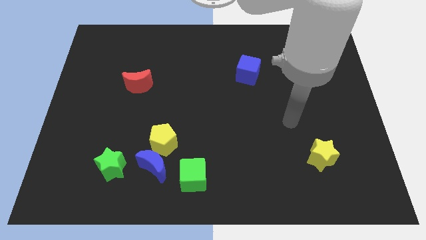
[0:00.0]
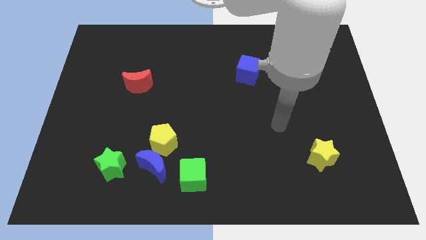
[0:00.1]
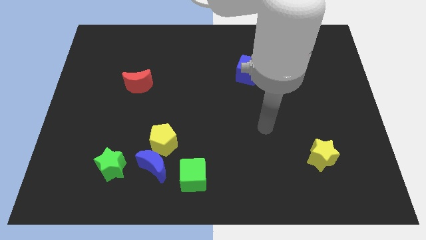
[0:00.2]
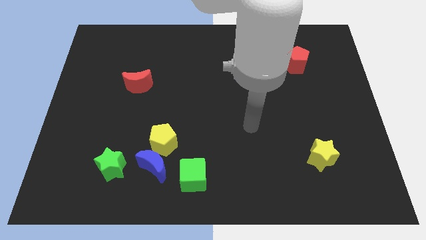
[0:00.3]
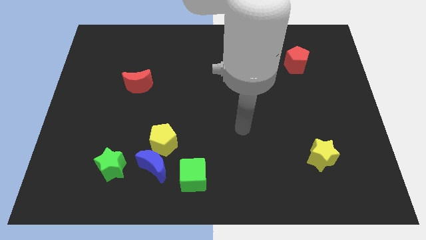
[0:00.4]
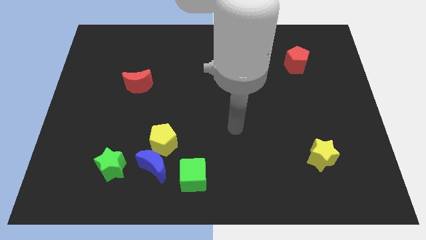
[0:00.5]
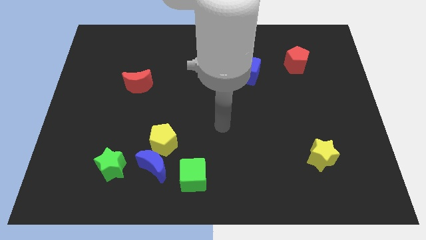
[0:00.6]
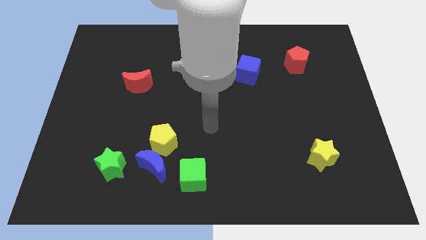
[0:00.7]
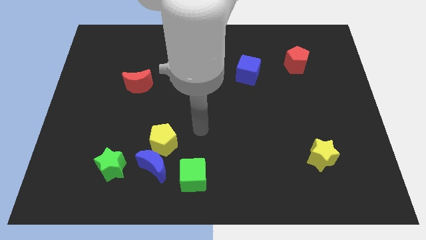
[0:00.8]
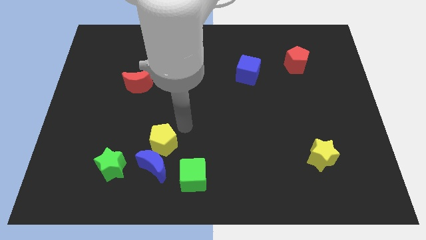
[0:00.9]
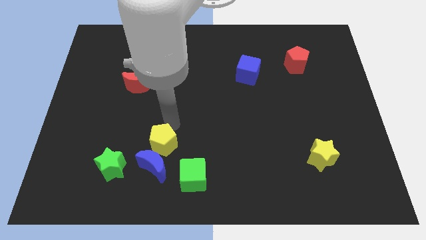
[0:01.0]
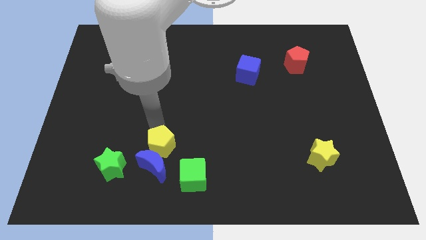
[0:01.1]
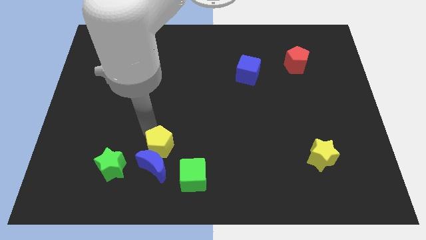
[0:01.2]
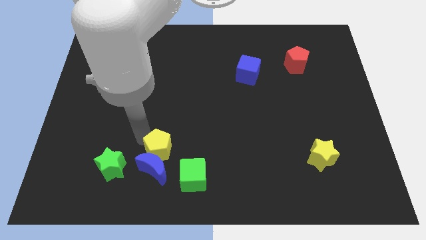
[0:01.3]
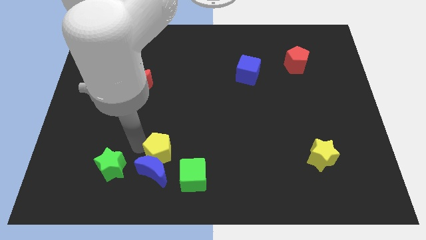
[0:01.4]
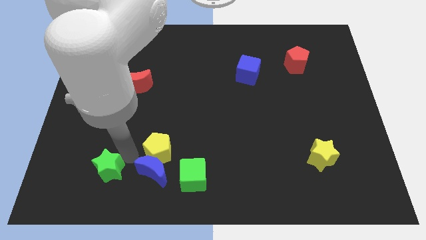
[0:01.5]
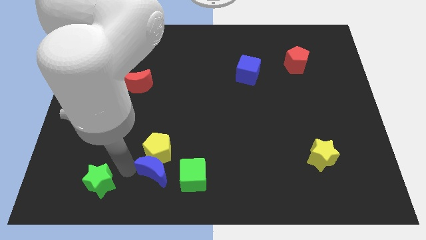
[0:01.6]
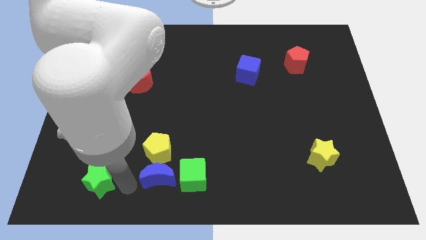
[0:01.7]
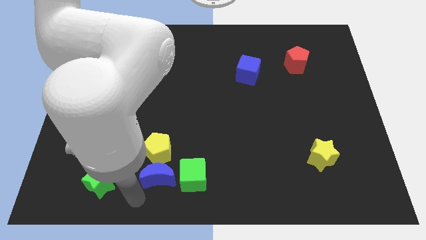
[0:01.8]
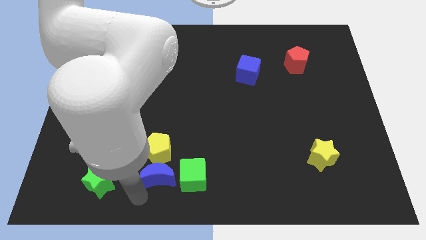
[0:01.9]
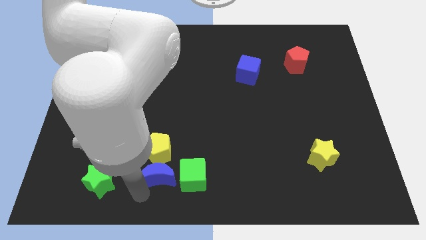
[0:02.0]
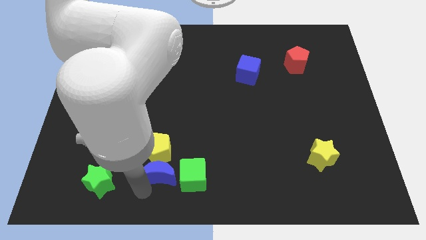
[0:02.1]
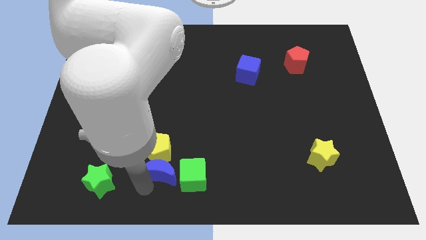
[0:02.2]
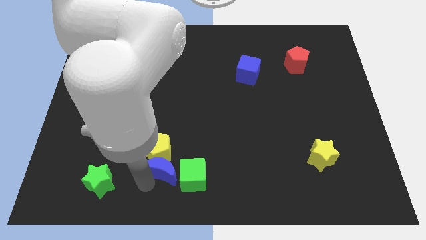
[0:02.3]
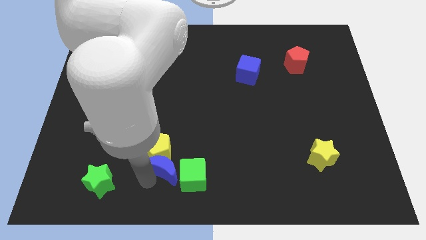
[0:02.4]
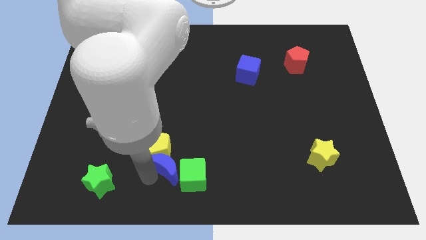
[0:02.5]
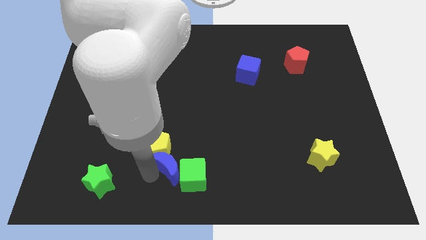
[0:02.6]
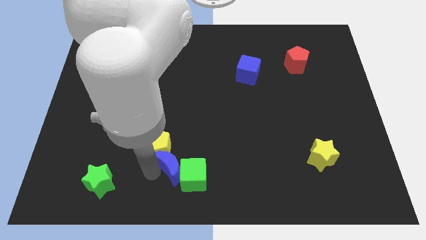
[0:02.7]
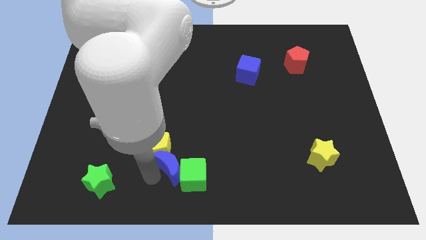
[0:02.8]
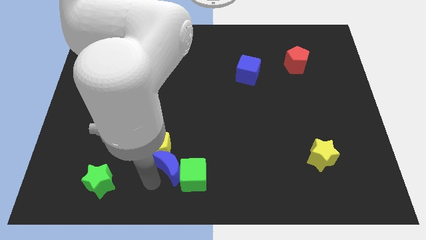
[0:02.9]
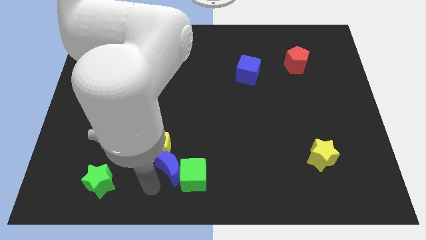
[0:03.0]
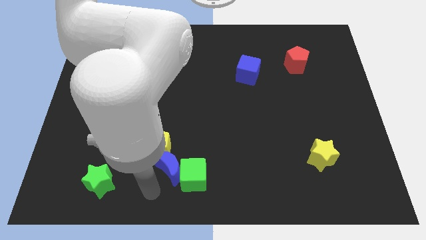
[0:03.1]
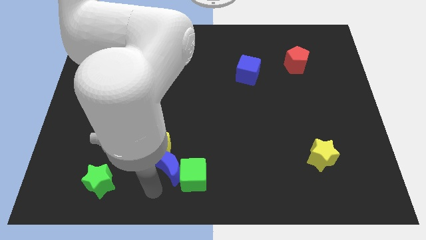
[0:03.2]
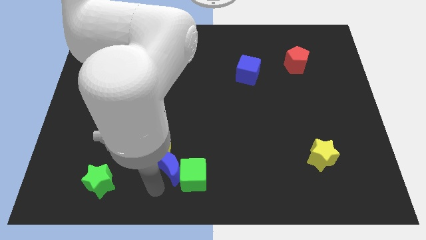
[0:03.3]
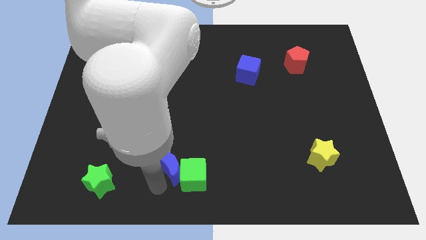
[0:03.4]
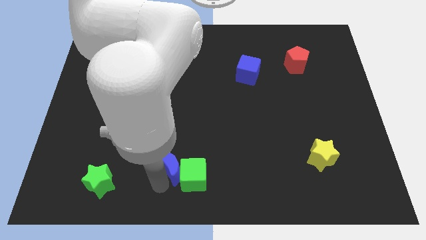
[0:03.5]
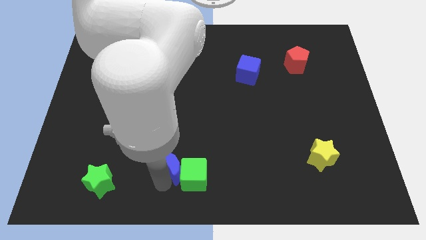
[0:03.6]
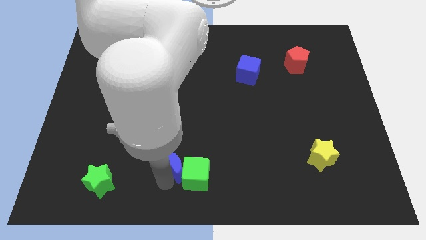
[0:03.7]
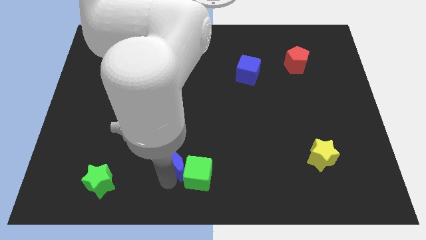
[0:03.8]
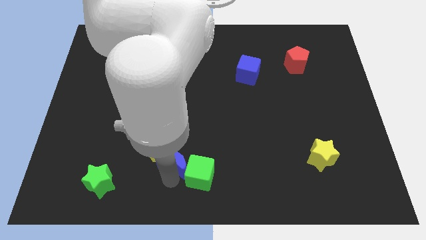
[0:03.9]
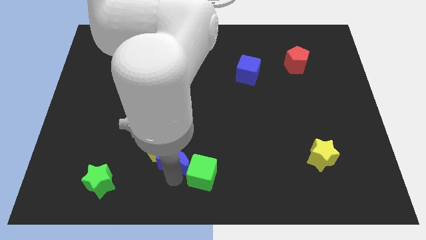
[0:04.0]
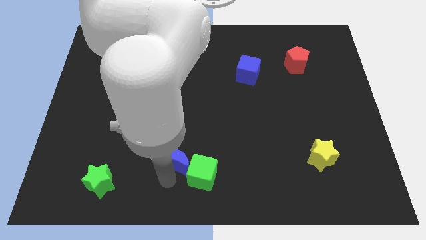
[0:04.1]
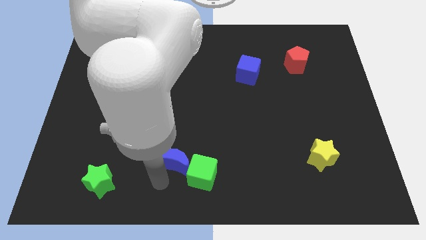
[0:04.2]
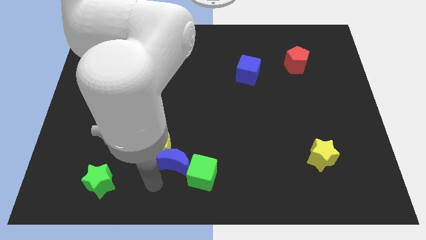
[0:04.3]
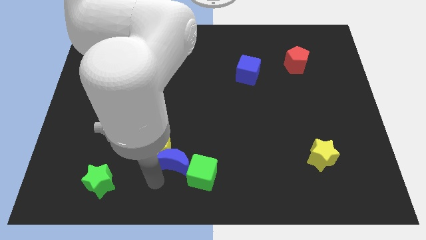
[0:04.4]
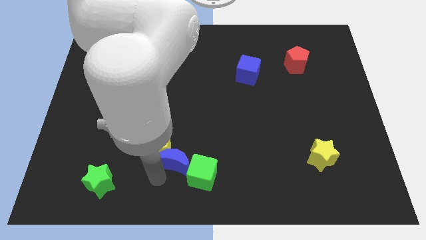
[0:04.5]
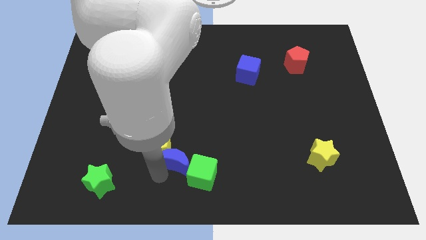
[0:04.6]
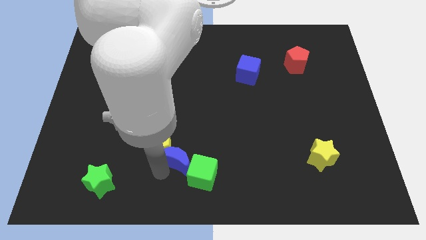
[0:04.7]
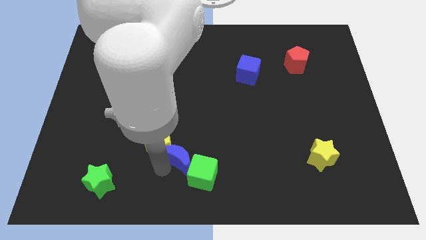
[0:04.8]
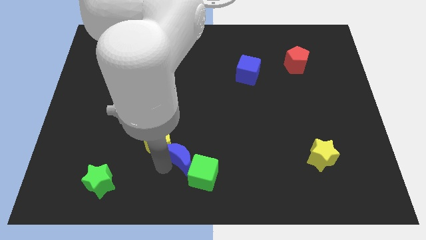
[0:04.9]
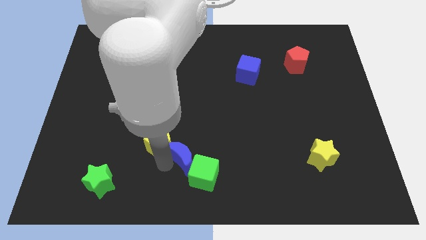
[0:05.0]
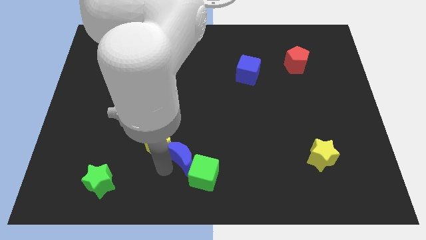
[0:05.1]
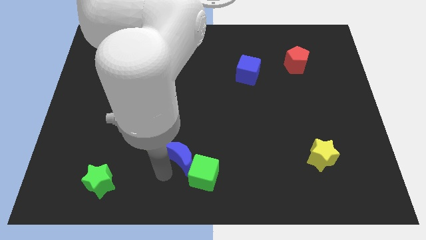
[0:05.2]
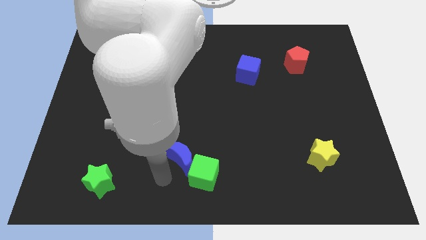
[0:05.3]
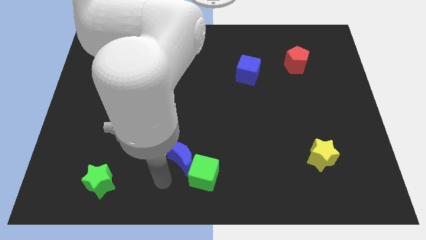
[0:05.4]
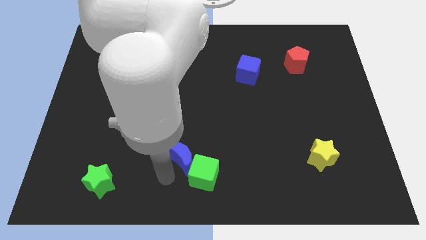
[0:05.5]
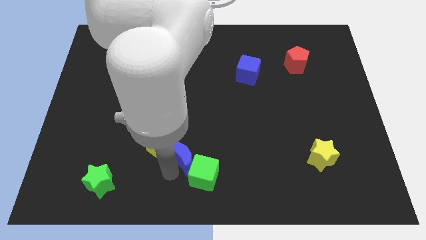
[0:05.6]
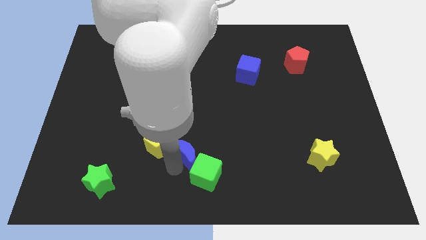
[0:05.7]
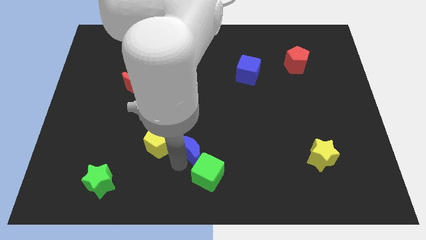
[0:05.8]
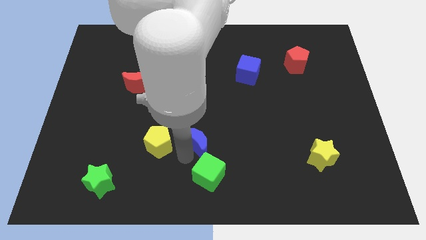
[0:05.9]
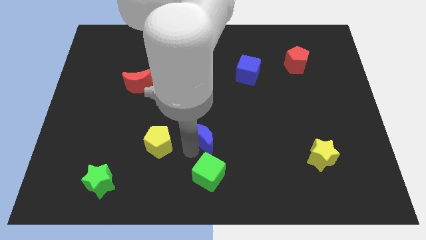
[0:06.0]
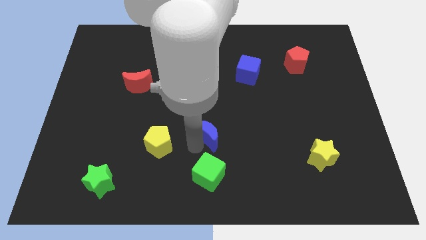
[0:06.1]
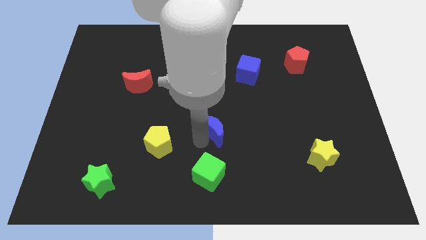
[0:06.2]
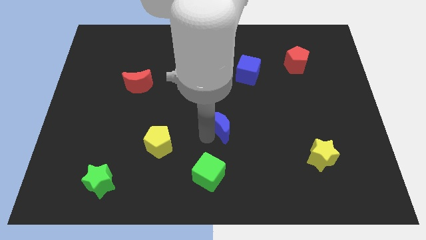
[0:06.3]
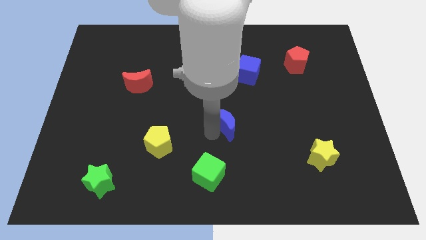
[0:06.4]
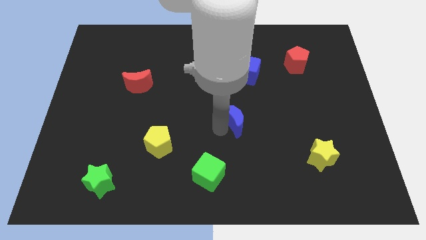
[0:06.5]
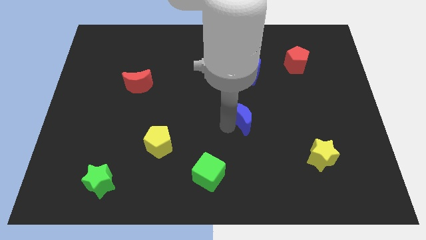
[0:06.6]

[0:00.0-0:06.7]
put the blue moon below the blue cube

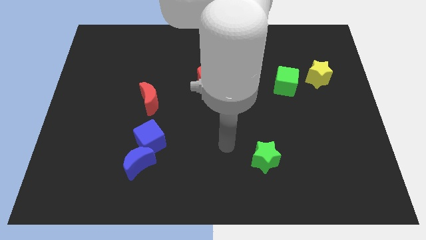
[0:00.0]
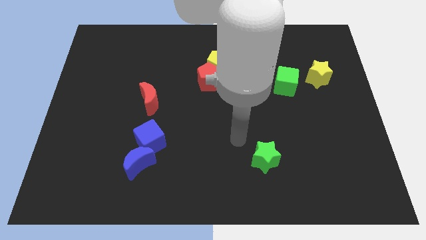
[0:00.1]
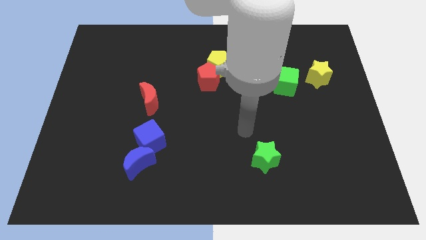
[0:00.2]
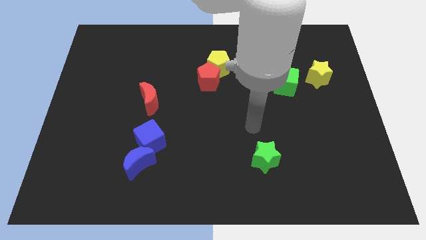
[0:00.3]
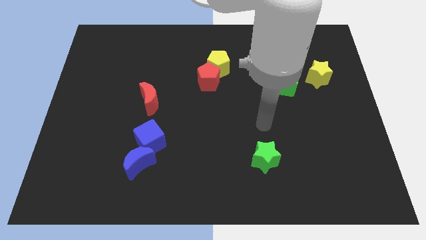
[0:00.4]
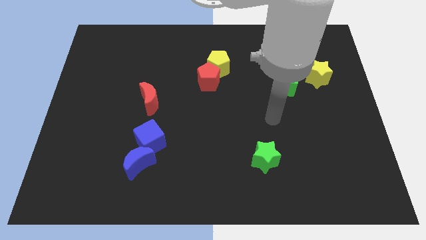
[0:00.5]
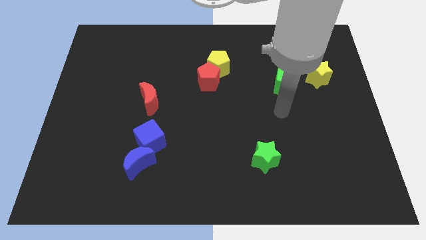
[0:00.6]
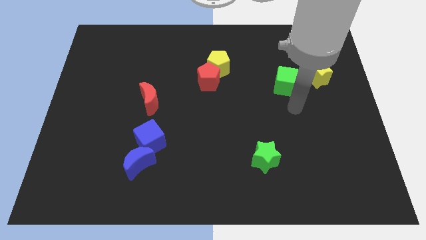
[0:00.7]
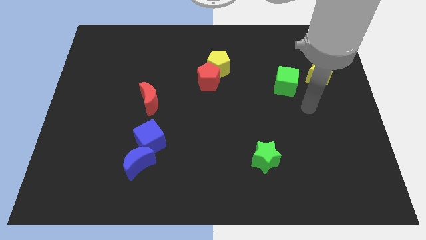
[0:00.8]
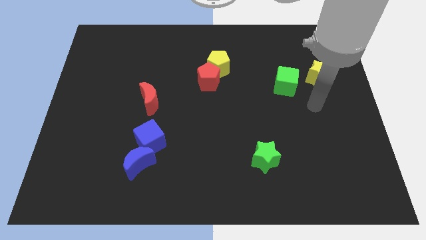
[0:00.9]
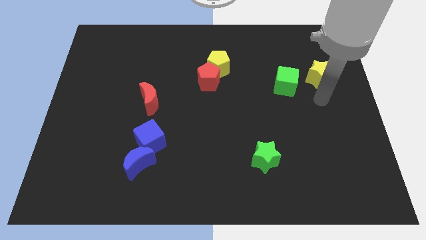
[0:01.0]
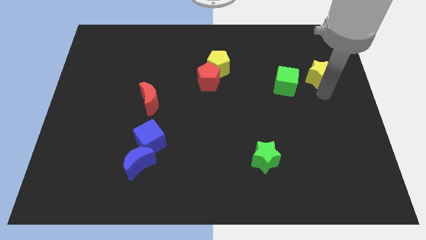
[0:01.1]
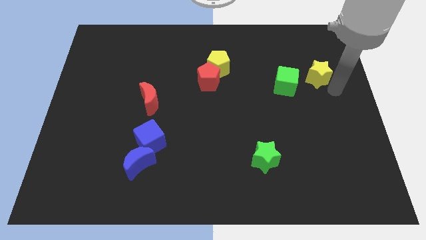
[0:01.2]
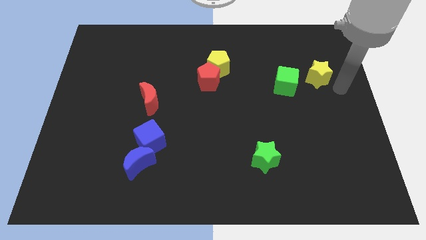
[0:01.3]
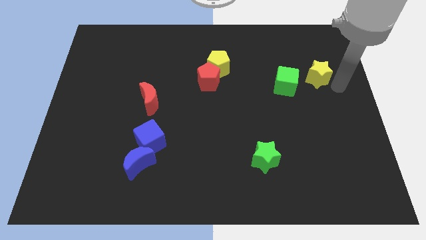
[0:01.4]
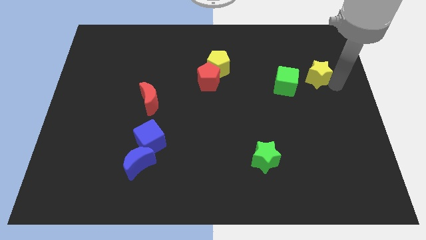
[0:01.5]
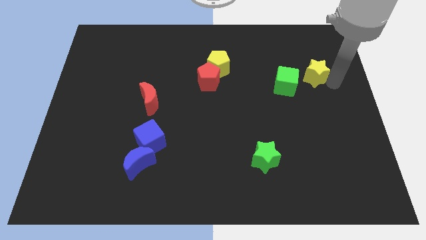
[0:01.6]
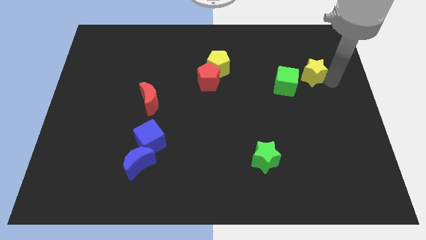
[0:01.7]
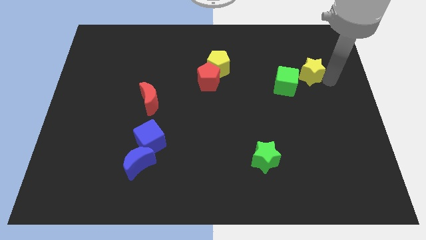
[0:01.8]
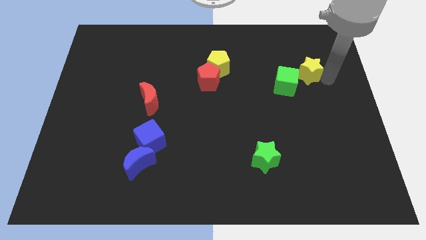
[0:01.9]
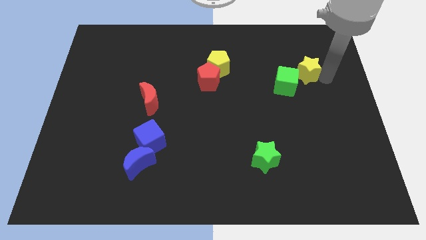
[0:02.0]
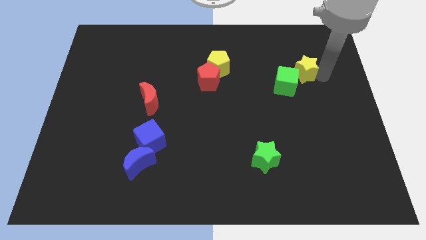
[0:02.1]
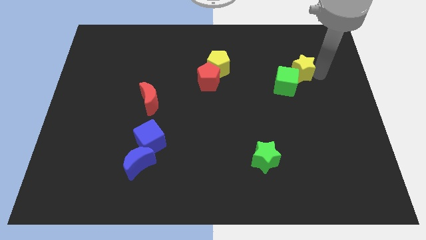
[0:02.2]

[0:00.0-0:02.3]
move the yellow star to the top side of the green cube
